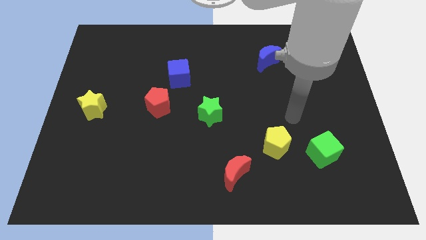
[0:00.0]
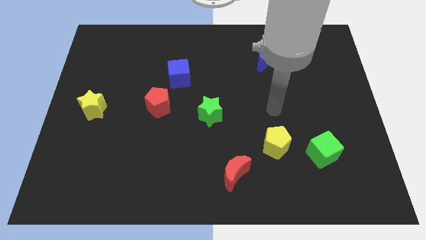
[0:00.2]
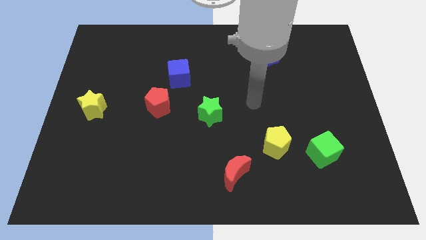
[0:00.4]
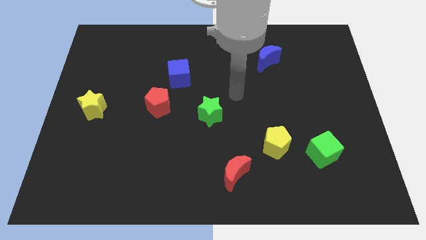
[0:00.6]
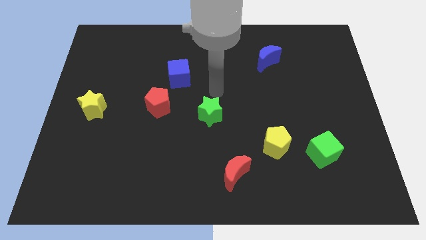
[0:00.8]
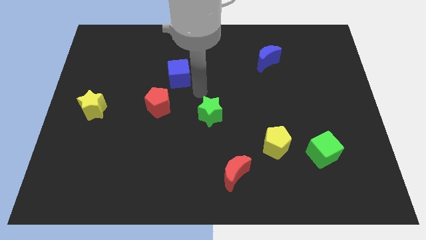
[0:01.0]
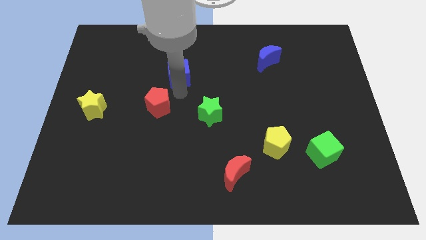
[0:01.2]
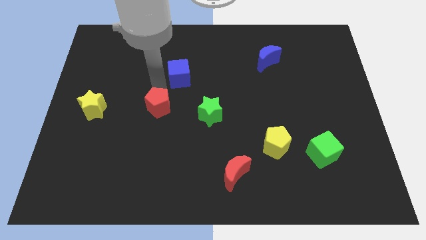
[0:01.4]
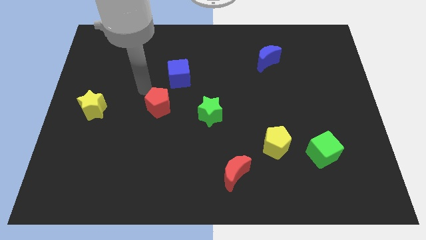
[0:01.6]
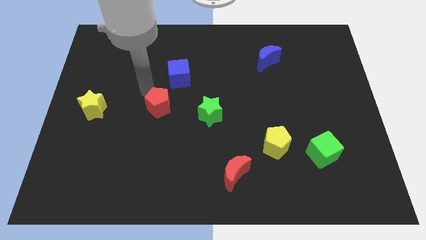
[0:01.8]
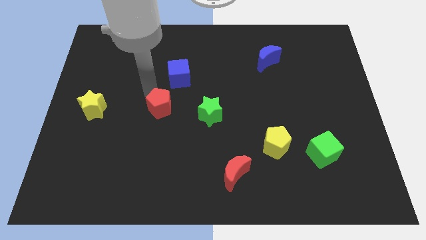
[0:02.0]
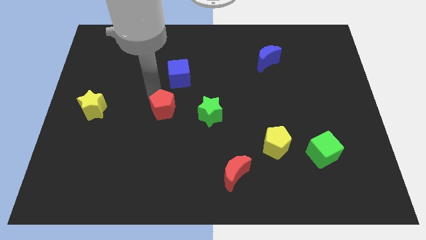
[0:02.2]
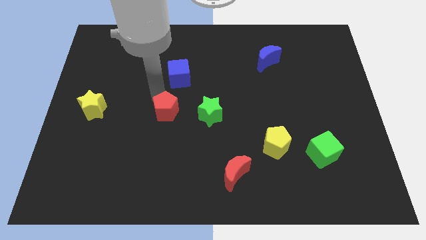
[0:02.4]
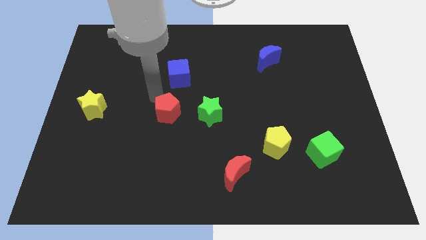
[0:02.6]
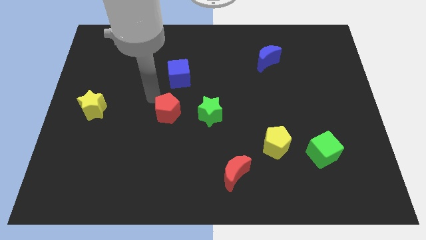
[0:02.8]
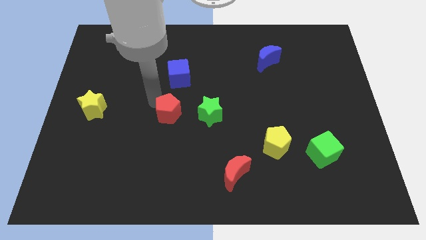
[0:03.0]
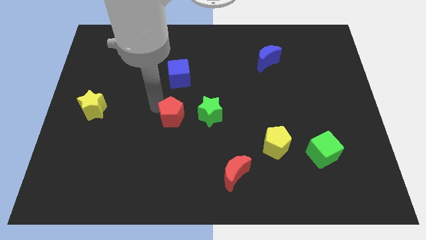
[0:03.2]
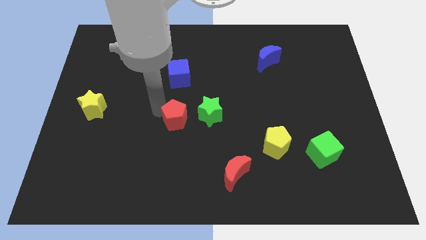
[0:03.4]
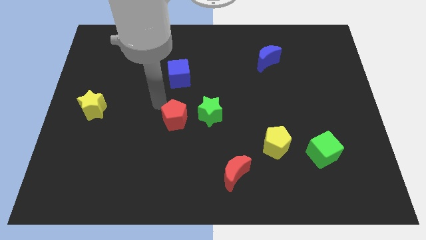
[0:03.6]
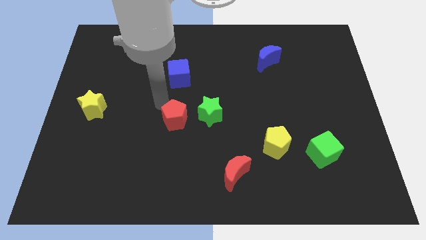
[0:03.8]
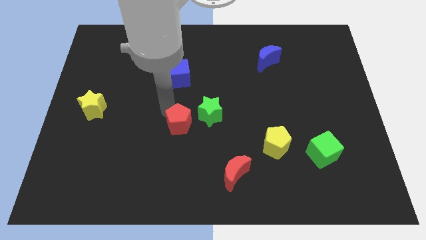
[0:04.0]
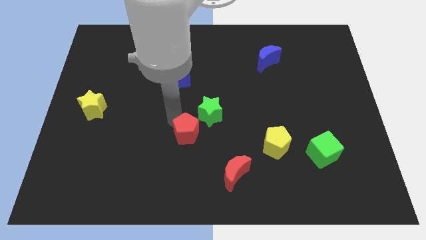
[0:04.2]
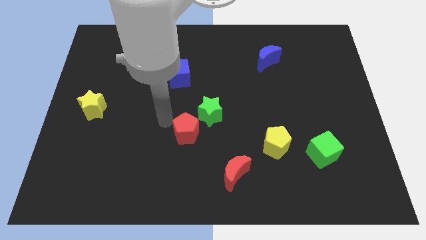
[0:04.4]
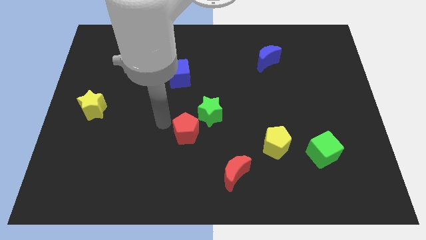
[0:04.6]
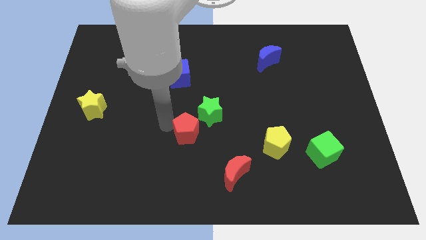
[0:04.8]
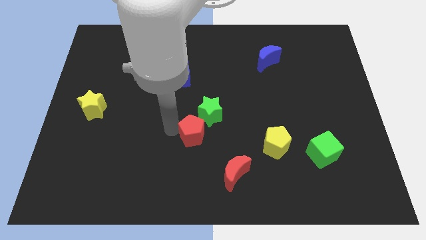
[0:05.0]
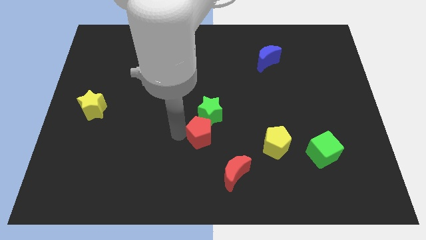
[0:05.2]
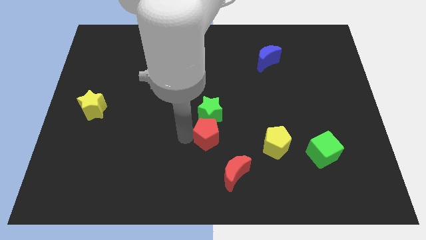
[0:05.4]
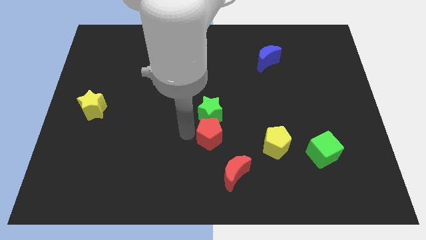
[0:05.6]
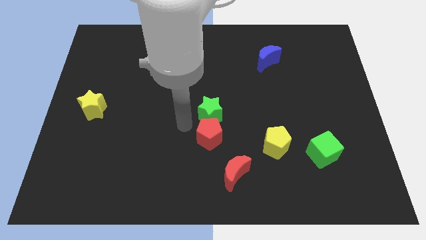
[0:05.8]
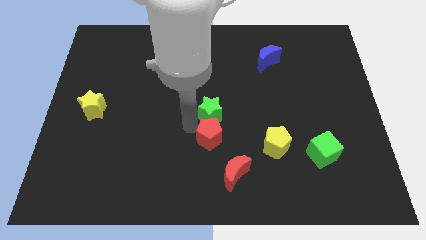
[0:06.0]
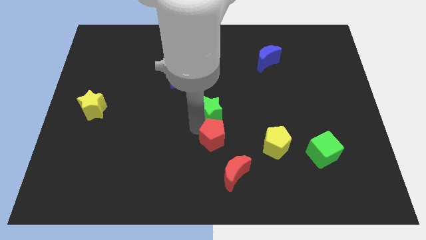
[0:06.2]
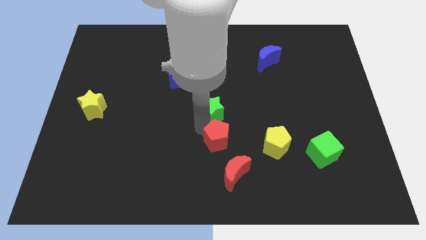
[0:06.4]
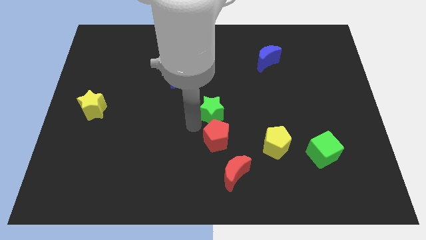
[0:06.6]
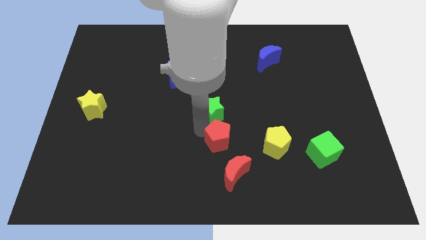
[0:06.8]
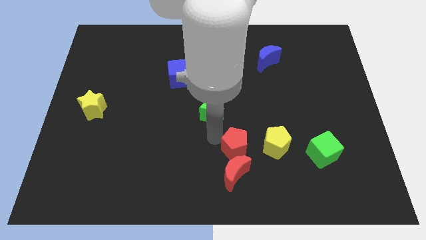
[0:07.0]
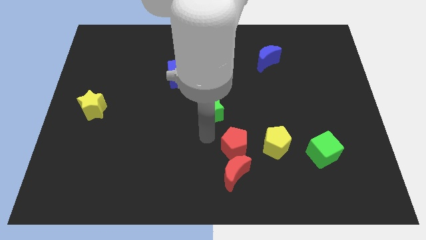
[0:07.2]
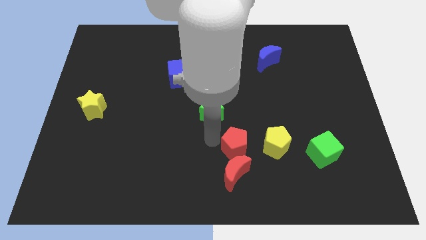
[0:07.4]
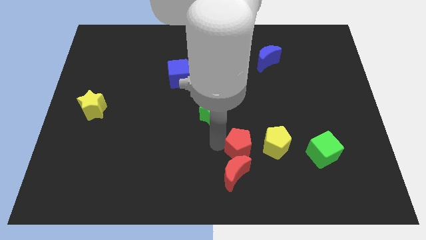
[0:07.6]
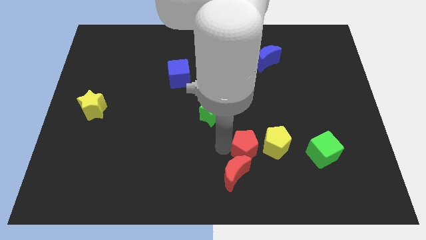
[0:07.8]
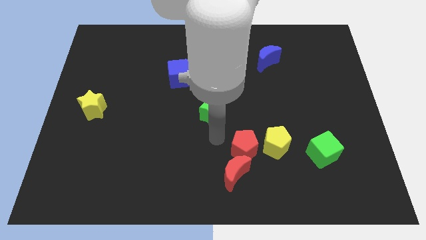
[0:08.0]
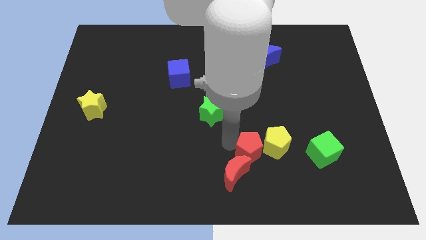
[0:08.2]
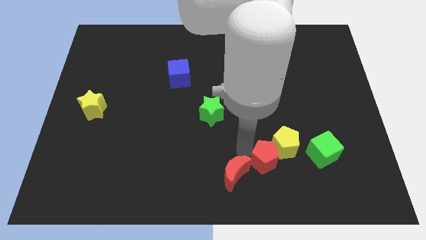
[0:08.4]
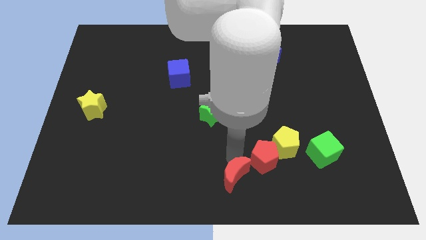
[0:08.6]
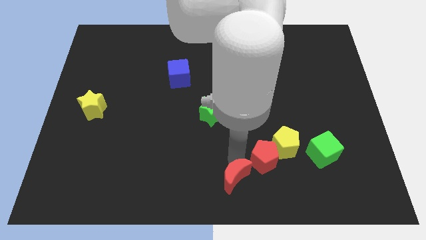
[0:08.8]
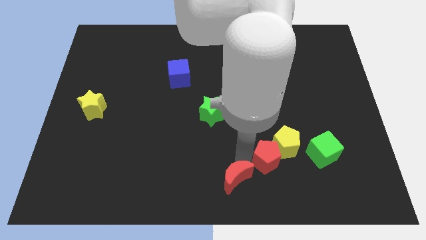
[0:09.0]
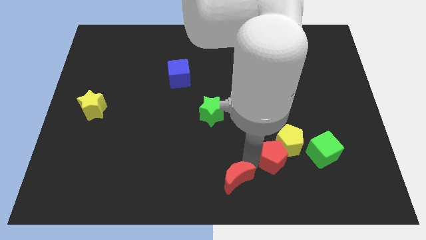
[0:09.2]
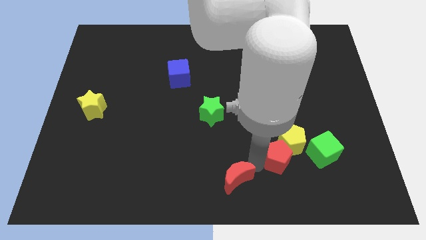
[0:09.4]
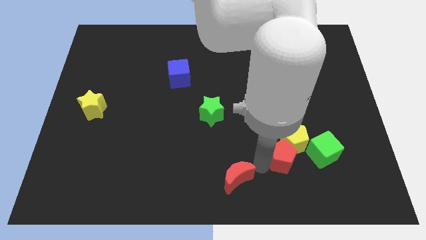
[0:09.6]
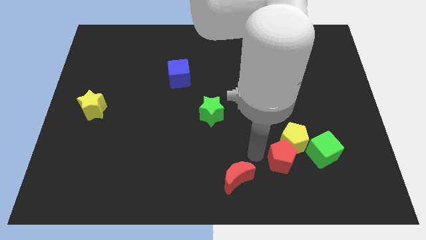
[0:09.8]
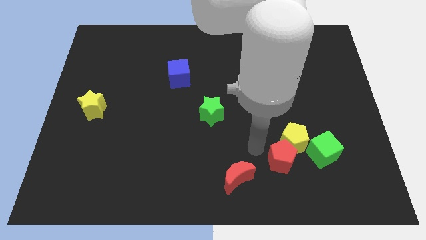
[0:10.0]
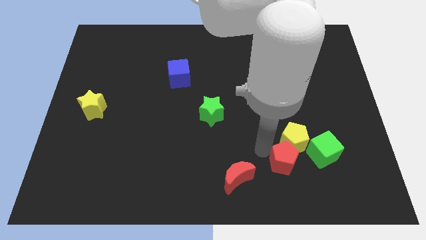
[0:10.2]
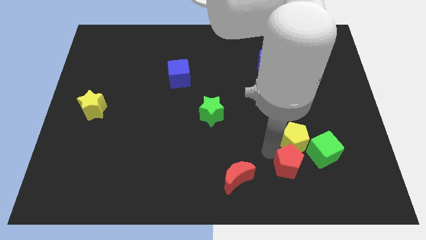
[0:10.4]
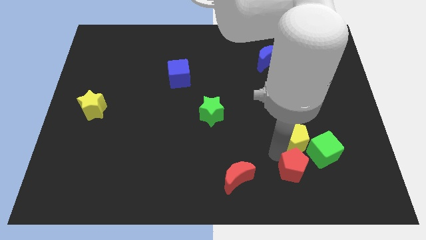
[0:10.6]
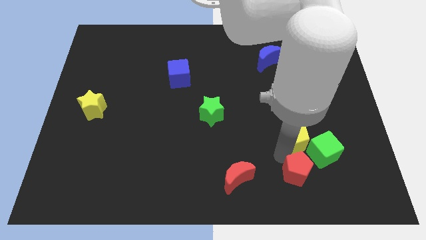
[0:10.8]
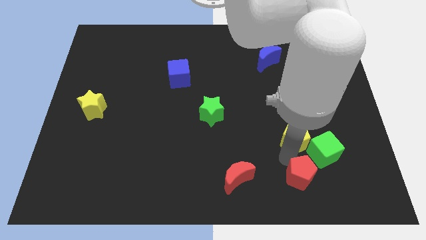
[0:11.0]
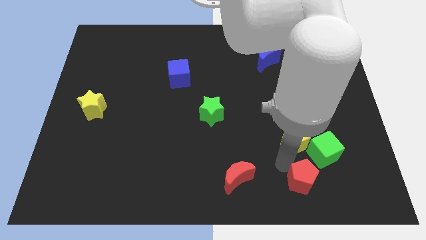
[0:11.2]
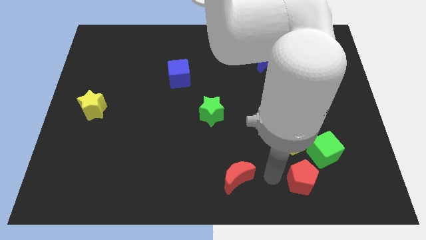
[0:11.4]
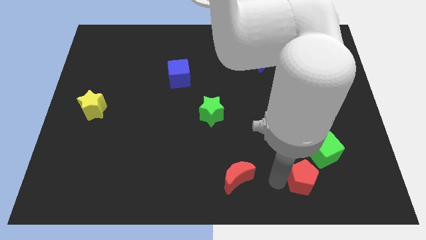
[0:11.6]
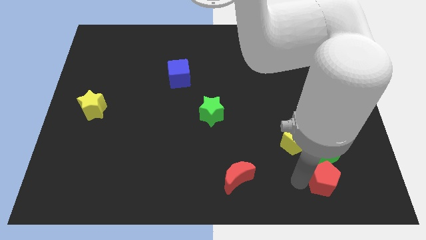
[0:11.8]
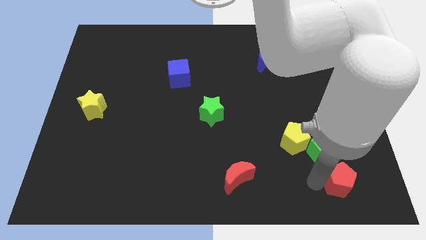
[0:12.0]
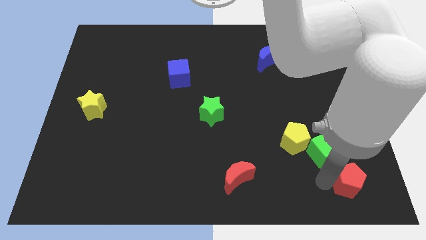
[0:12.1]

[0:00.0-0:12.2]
move the red pentagon to the bottom right corner

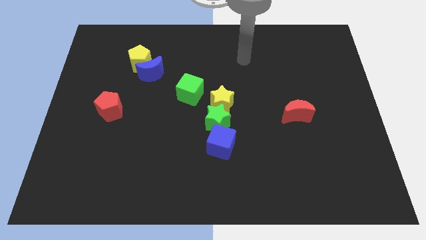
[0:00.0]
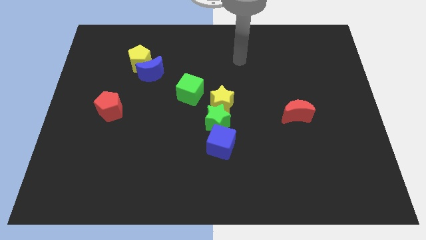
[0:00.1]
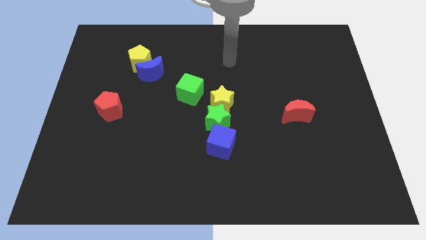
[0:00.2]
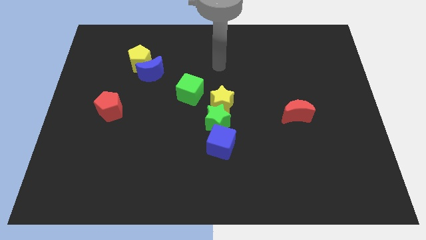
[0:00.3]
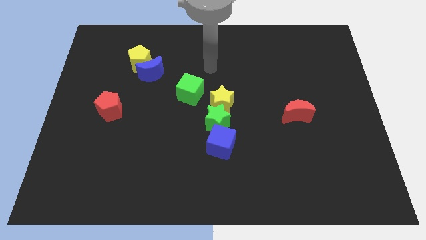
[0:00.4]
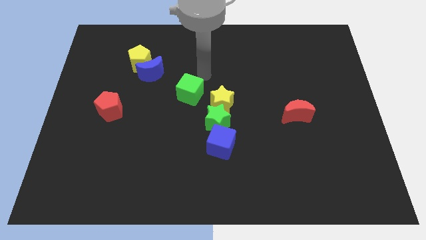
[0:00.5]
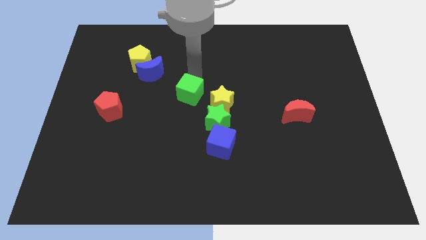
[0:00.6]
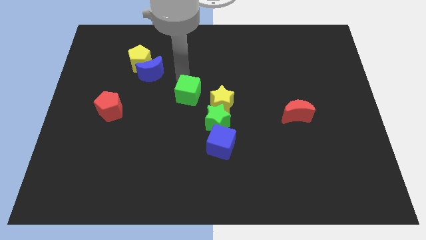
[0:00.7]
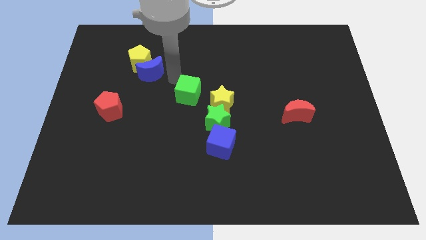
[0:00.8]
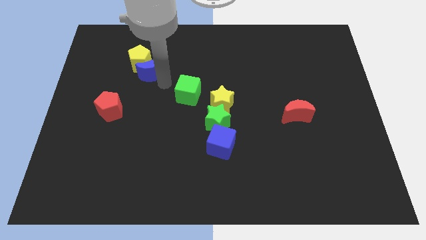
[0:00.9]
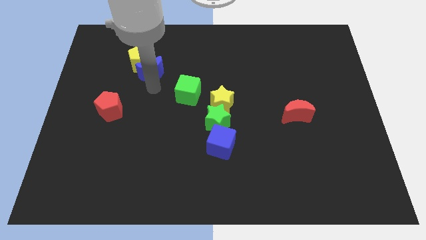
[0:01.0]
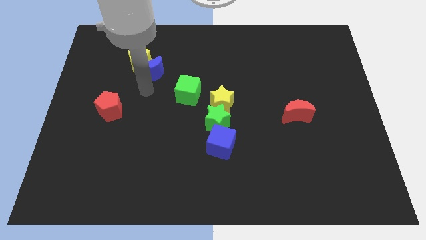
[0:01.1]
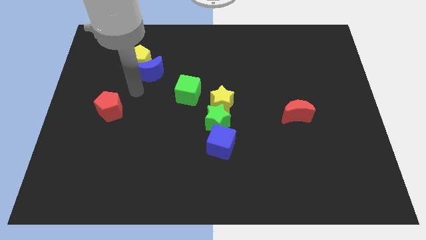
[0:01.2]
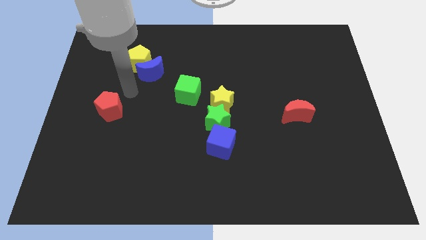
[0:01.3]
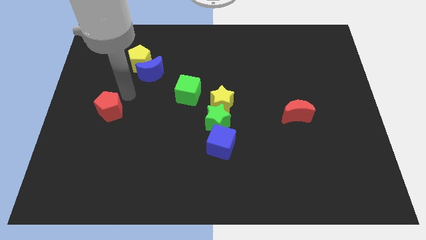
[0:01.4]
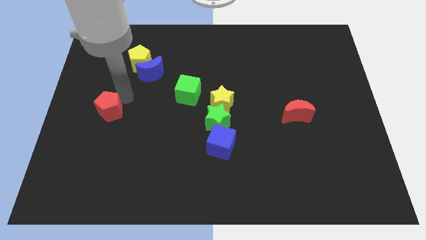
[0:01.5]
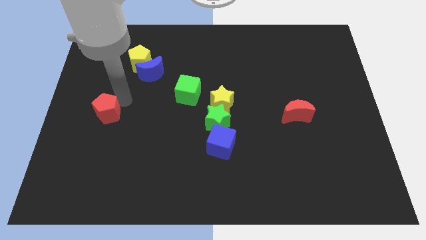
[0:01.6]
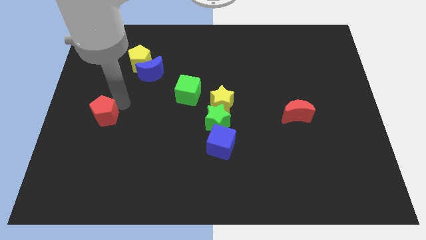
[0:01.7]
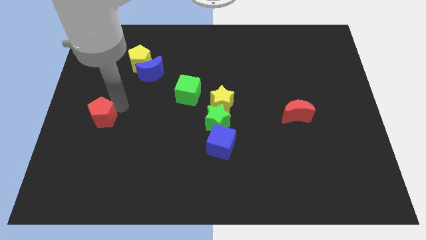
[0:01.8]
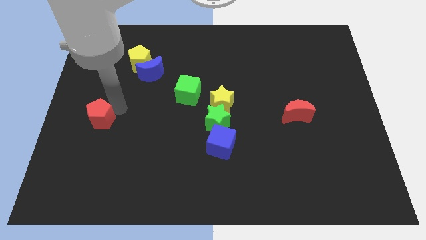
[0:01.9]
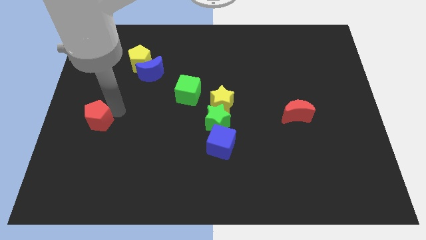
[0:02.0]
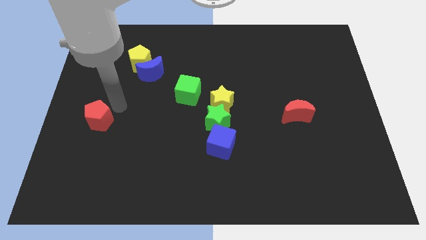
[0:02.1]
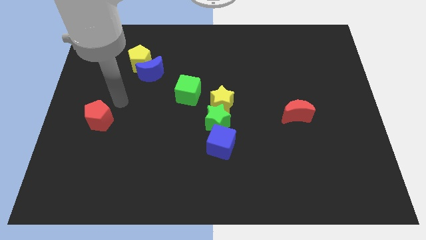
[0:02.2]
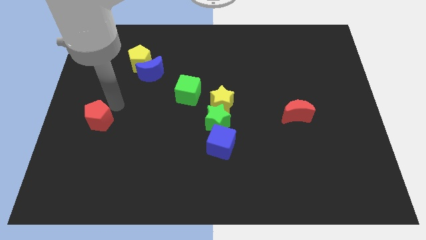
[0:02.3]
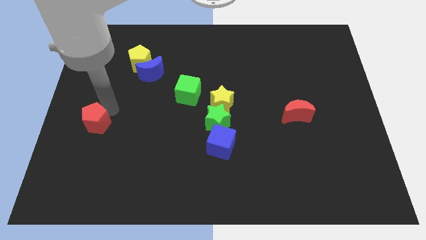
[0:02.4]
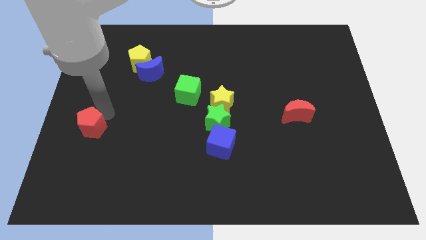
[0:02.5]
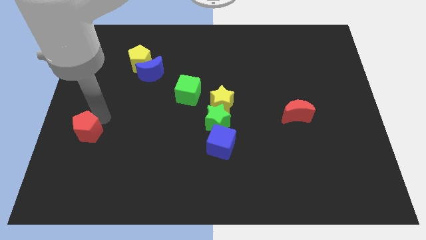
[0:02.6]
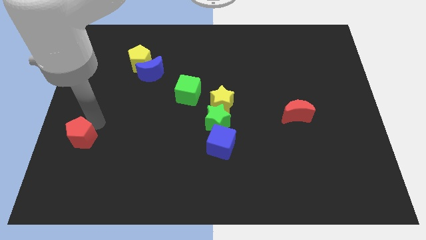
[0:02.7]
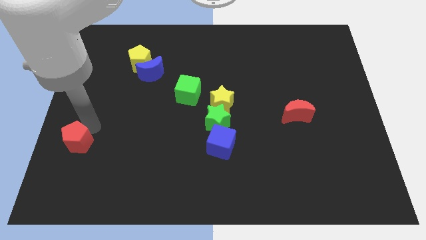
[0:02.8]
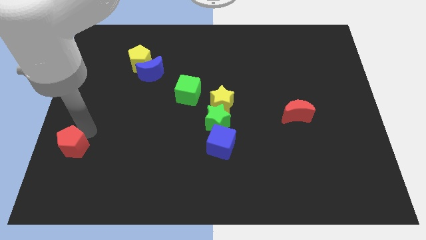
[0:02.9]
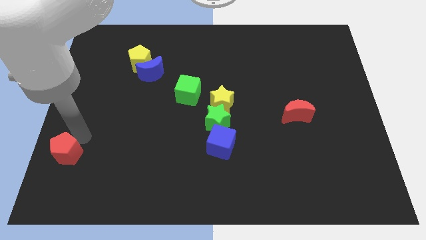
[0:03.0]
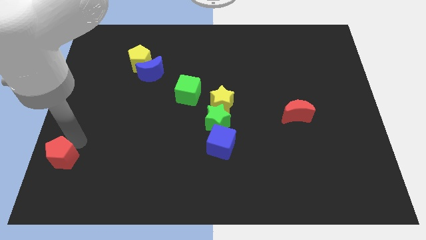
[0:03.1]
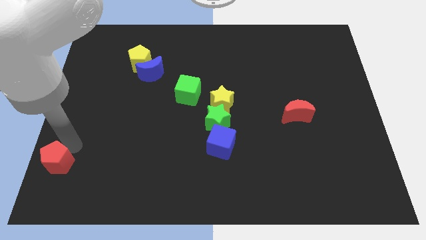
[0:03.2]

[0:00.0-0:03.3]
push the red pentagon to the bottom left corner
